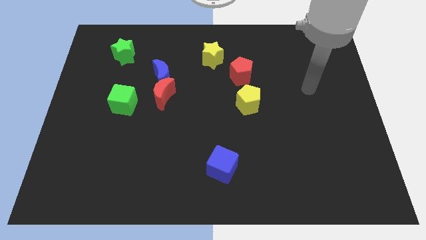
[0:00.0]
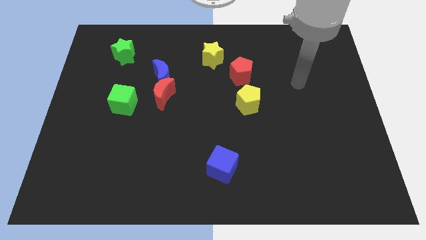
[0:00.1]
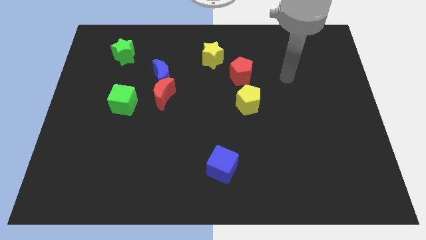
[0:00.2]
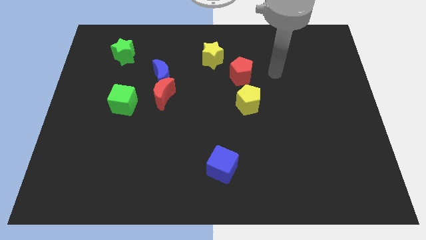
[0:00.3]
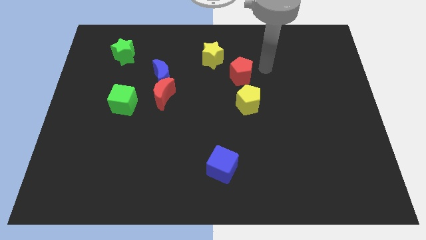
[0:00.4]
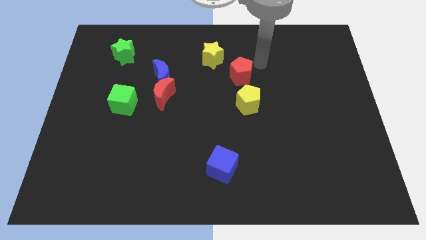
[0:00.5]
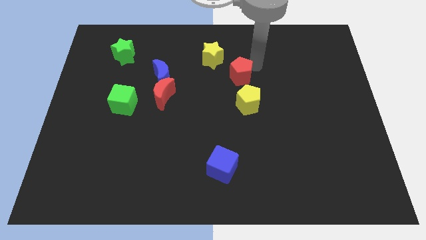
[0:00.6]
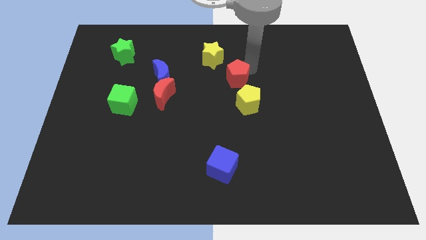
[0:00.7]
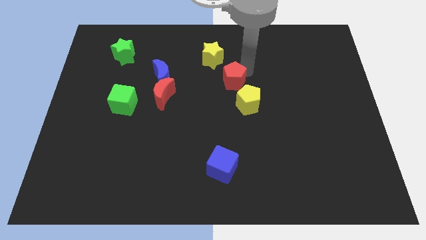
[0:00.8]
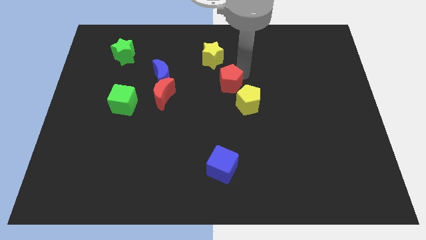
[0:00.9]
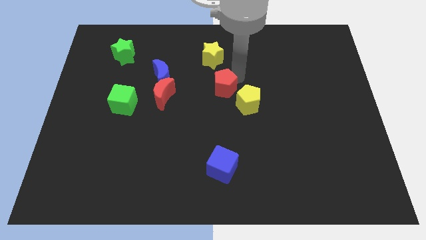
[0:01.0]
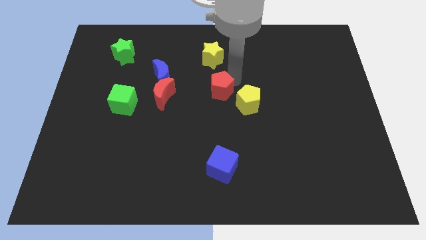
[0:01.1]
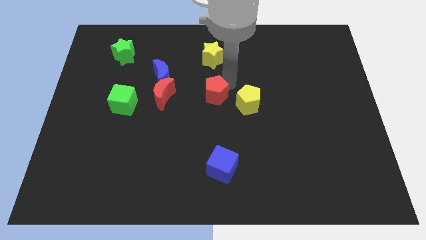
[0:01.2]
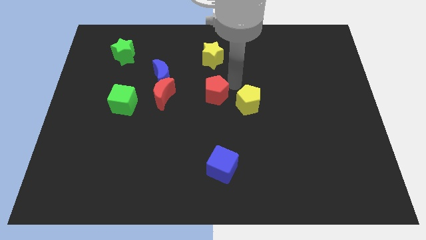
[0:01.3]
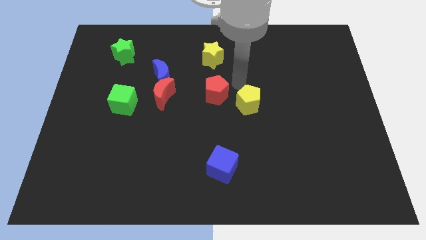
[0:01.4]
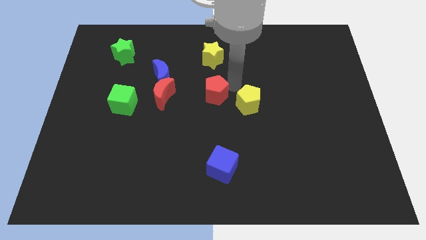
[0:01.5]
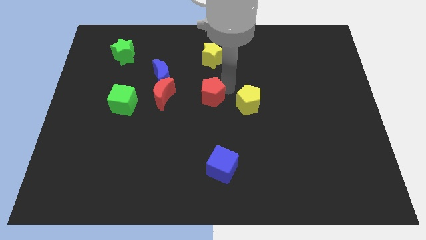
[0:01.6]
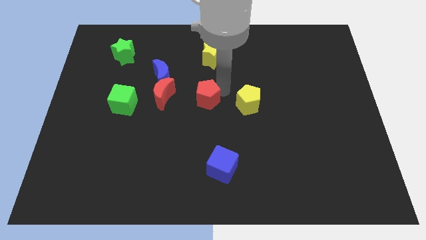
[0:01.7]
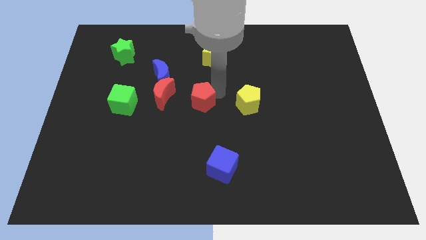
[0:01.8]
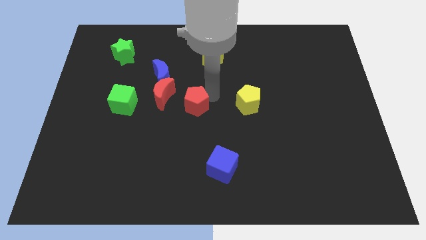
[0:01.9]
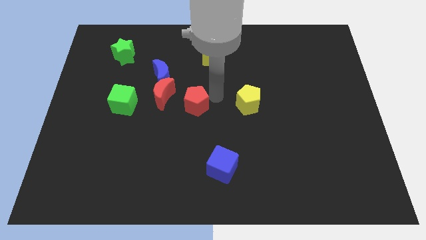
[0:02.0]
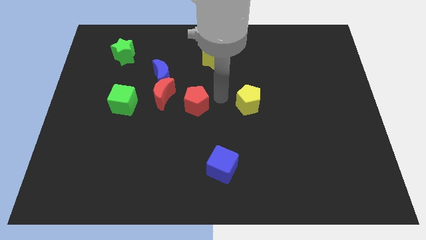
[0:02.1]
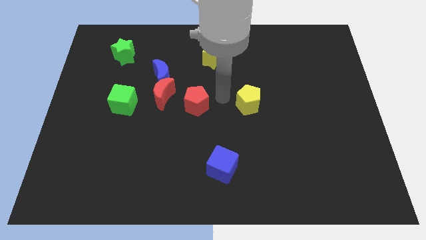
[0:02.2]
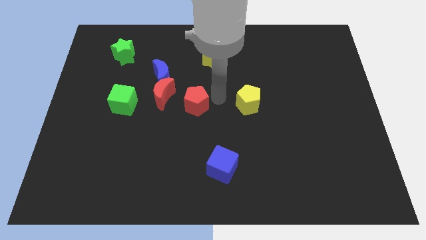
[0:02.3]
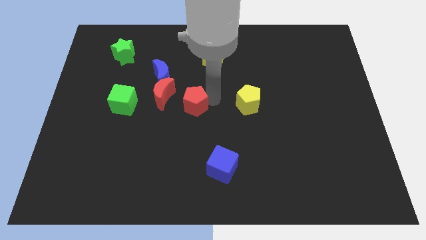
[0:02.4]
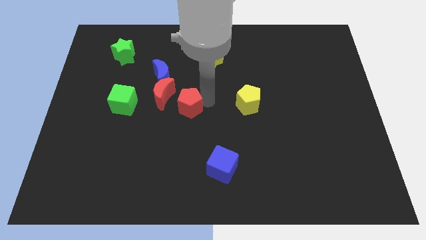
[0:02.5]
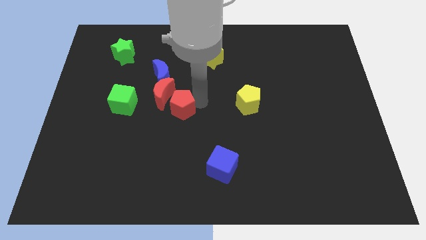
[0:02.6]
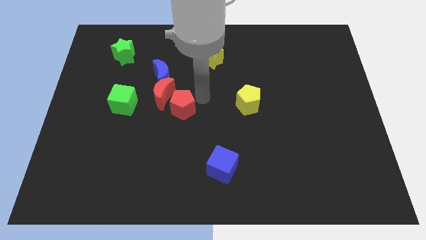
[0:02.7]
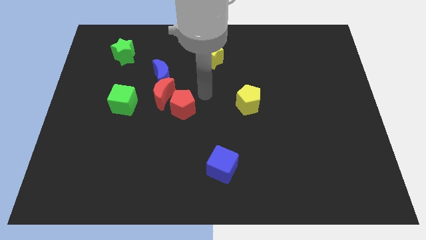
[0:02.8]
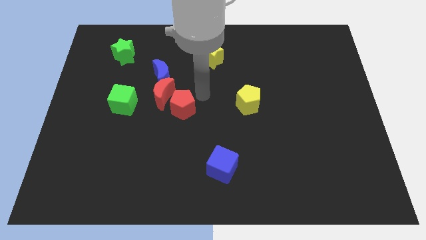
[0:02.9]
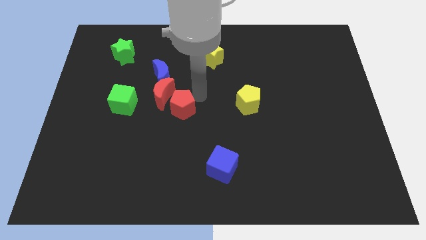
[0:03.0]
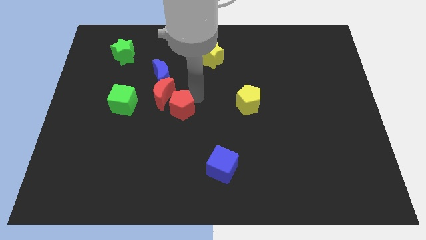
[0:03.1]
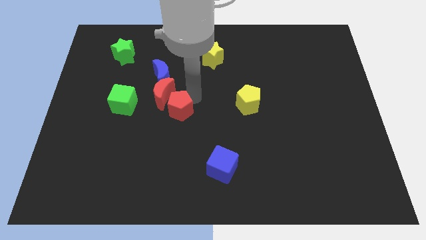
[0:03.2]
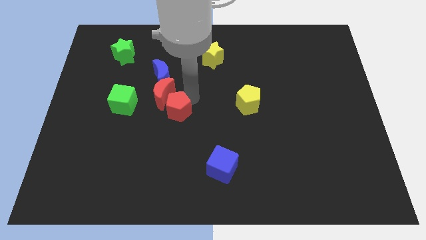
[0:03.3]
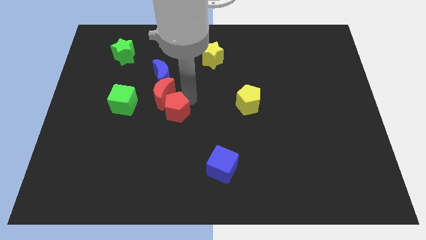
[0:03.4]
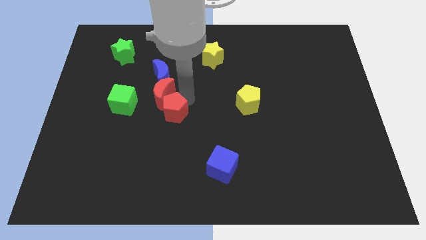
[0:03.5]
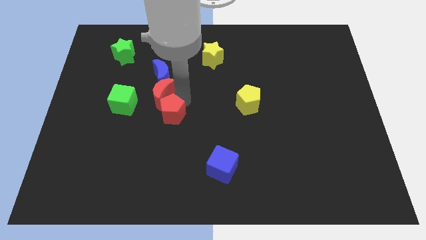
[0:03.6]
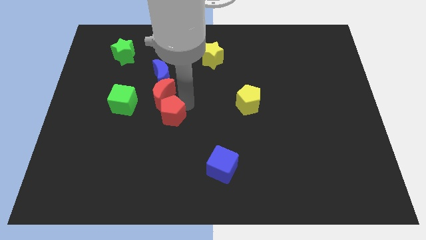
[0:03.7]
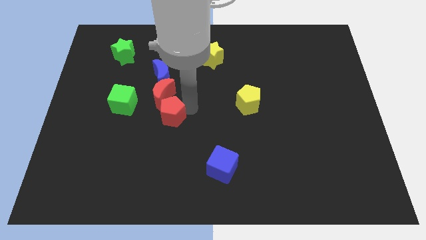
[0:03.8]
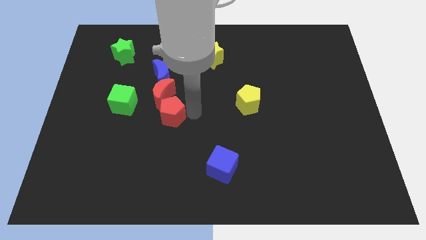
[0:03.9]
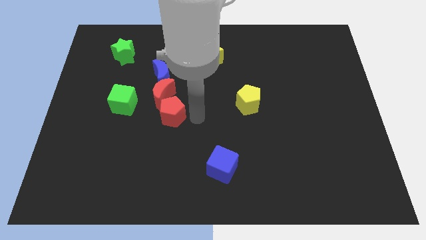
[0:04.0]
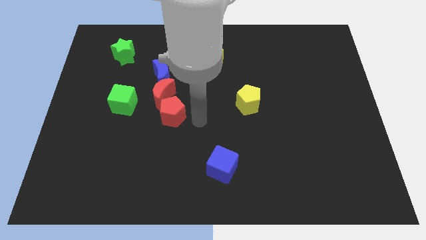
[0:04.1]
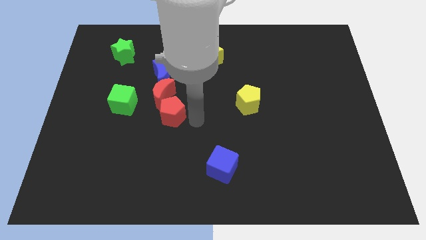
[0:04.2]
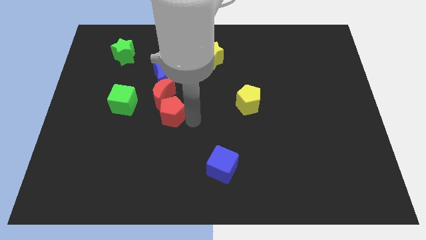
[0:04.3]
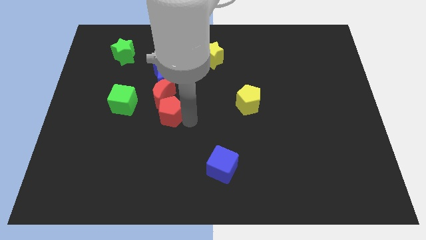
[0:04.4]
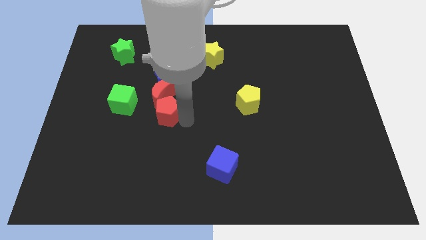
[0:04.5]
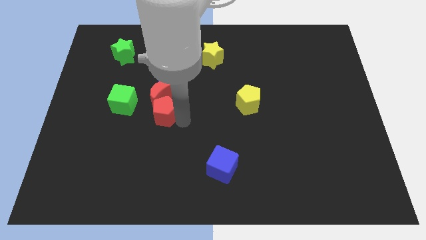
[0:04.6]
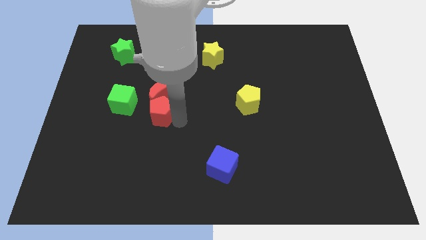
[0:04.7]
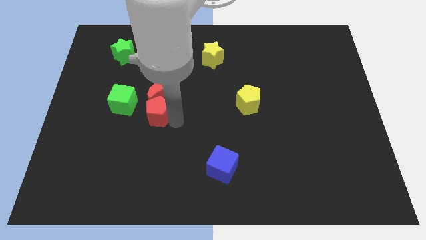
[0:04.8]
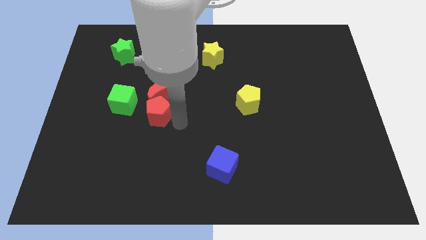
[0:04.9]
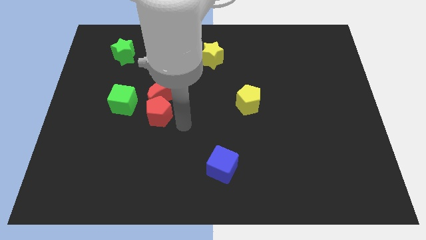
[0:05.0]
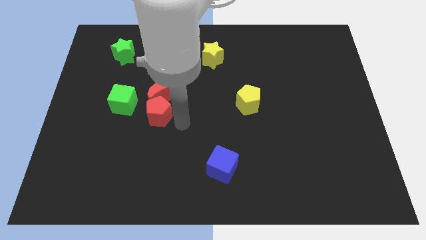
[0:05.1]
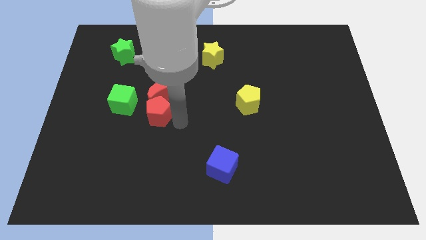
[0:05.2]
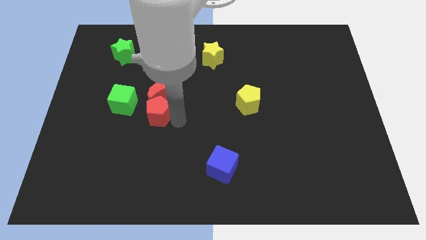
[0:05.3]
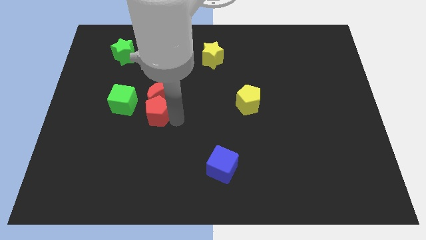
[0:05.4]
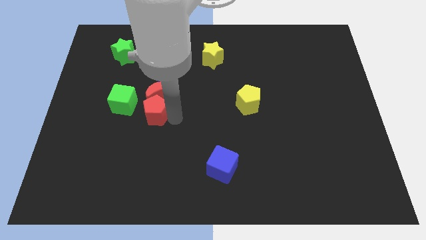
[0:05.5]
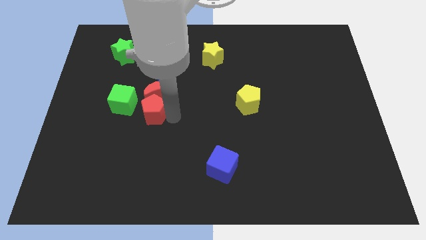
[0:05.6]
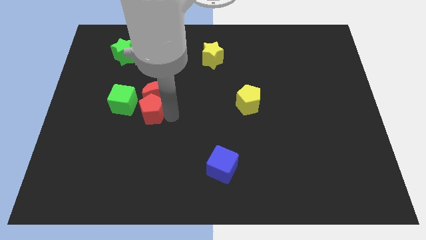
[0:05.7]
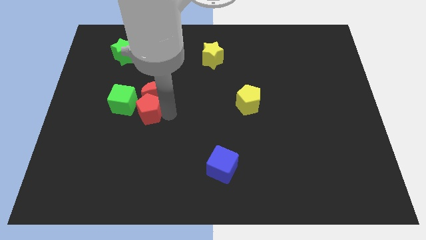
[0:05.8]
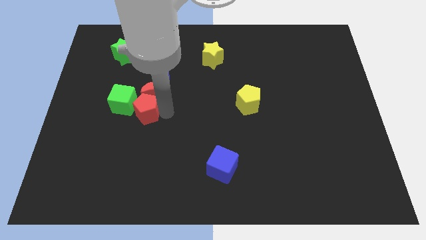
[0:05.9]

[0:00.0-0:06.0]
slide the red pentagon to the green cube

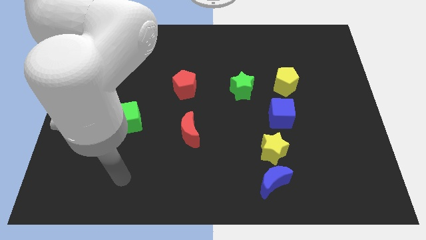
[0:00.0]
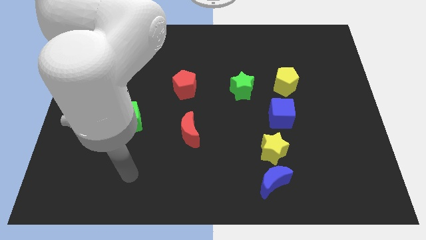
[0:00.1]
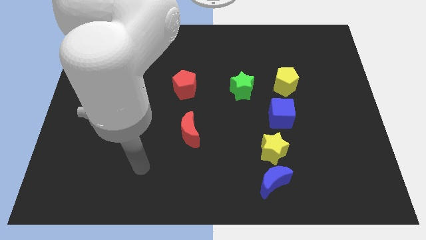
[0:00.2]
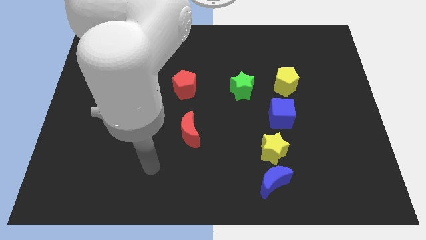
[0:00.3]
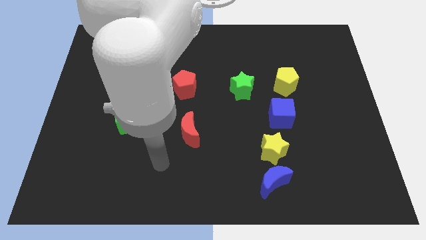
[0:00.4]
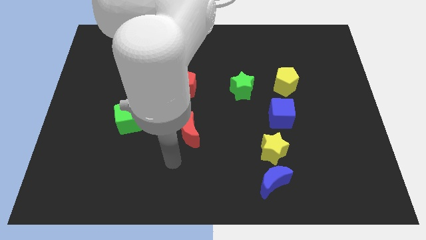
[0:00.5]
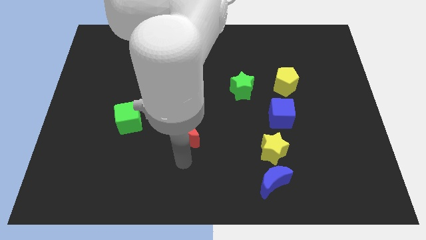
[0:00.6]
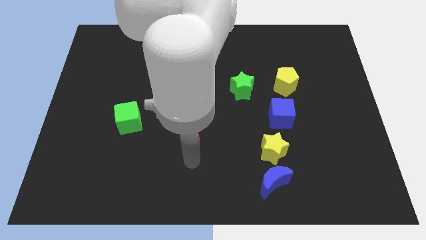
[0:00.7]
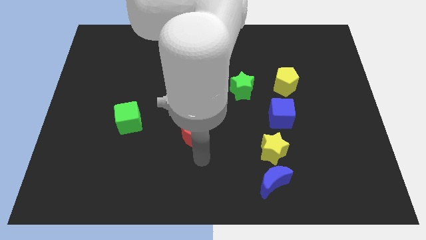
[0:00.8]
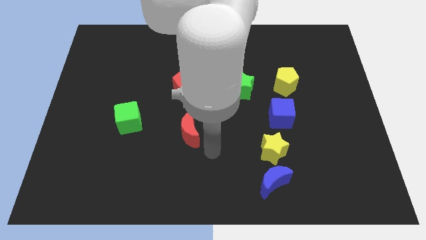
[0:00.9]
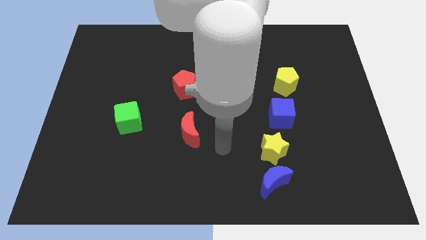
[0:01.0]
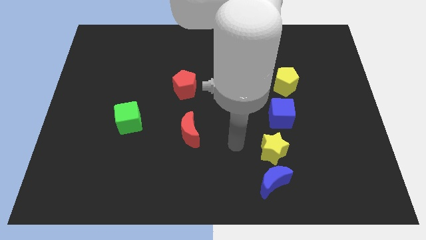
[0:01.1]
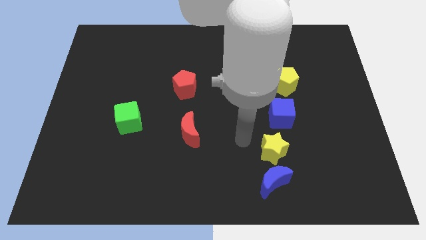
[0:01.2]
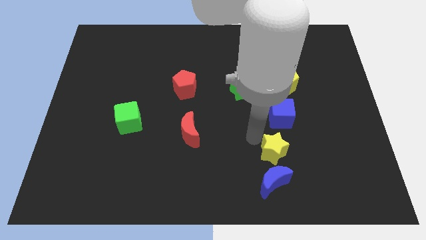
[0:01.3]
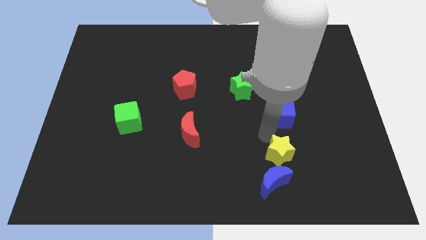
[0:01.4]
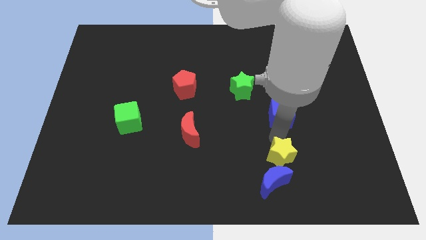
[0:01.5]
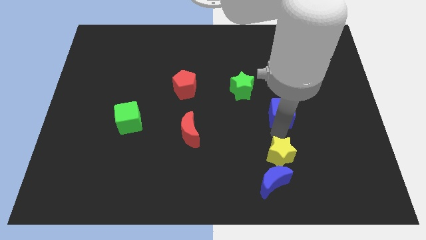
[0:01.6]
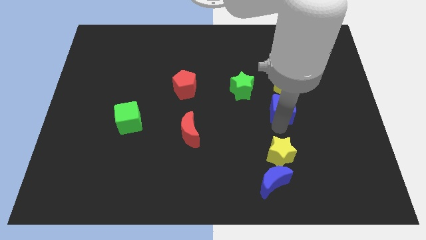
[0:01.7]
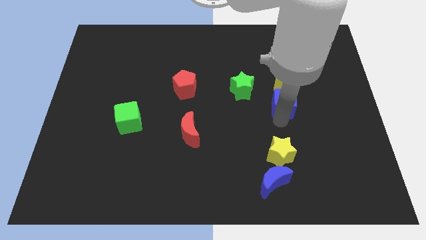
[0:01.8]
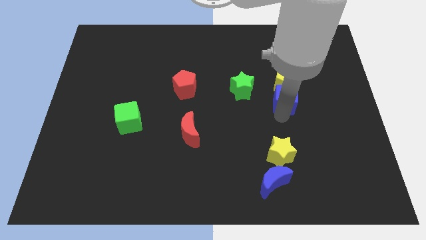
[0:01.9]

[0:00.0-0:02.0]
put the blue cube next to the yellow pentagon
